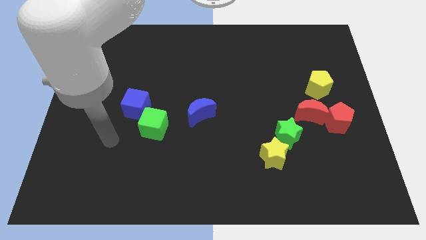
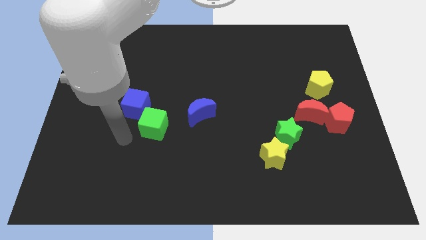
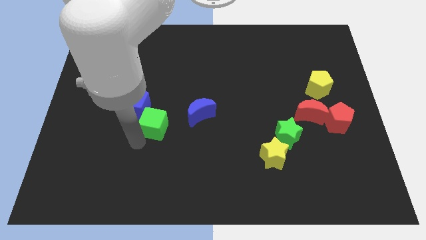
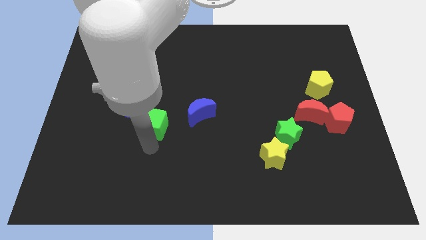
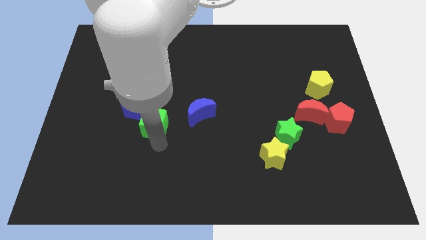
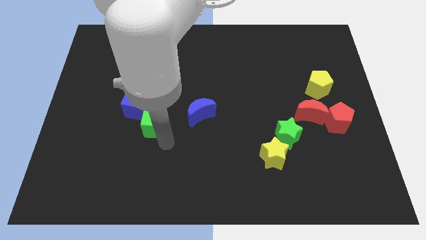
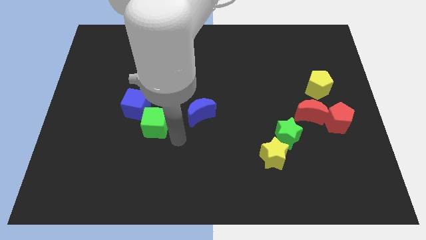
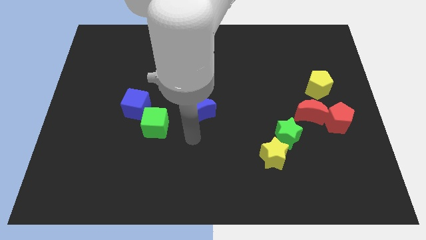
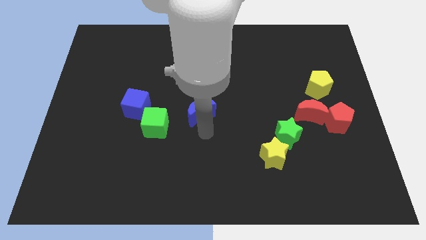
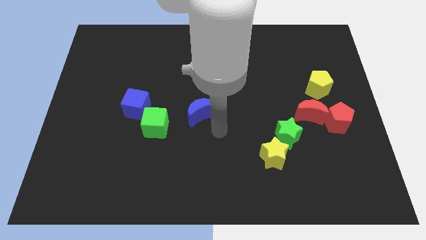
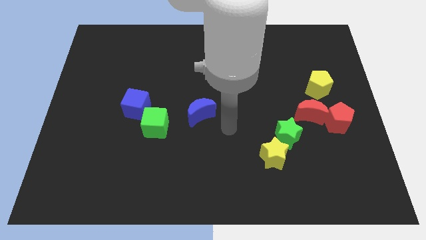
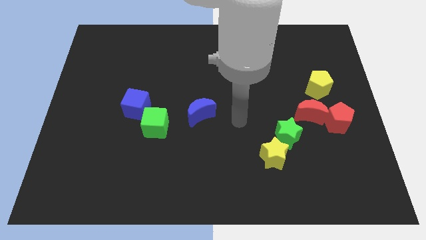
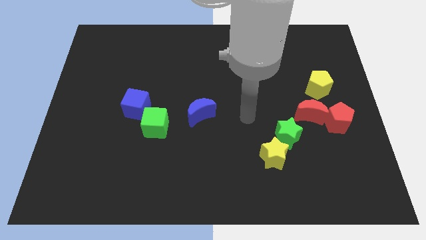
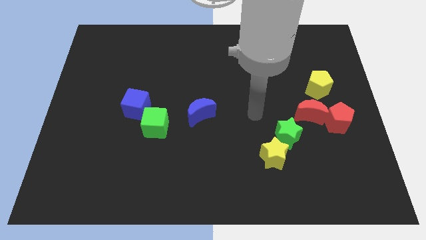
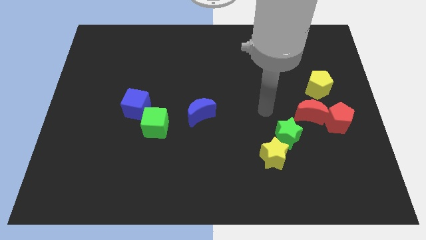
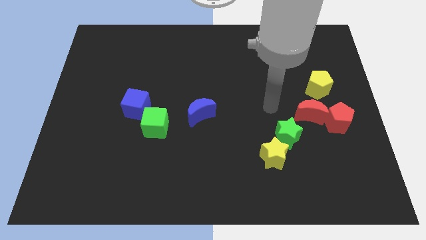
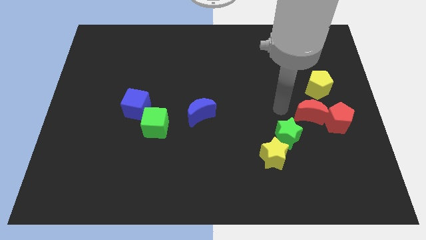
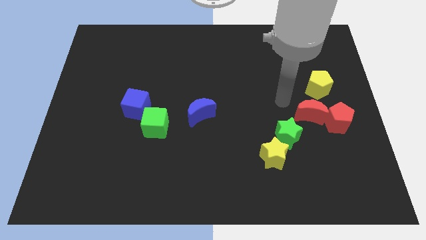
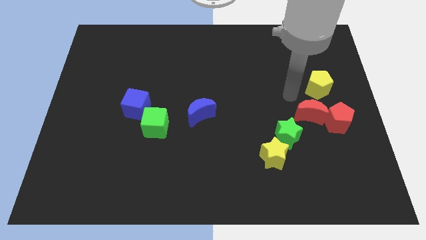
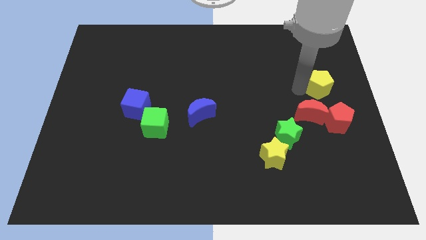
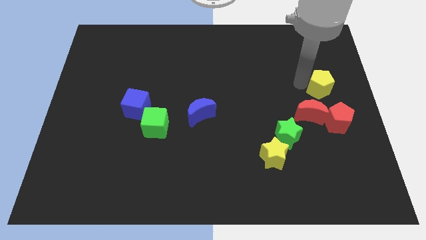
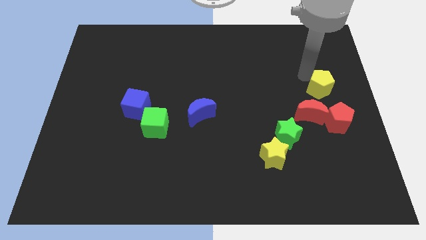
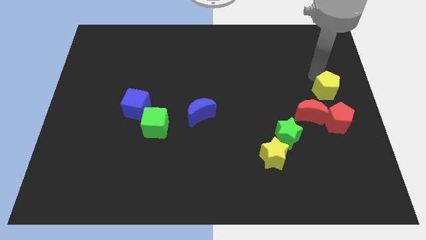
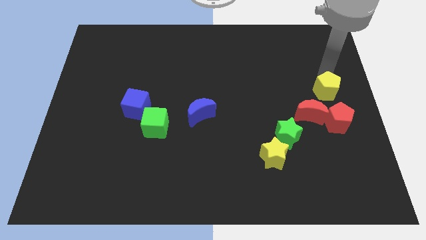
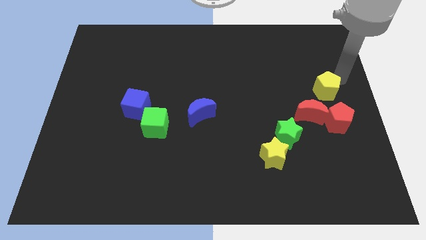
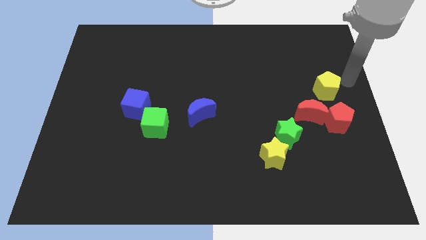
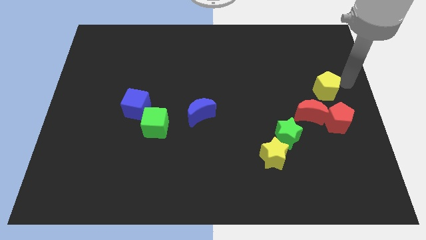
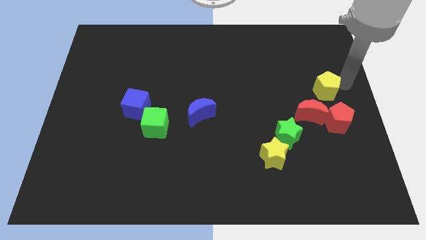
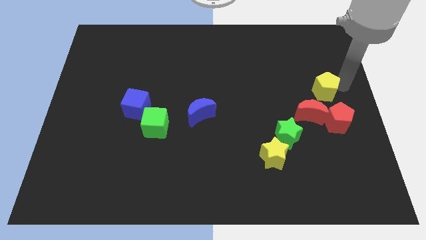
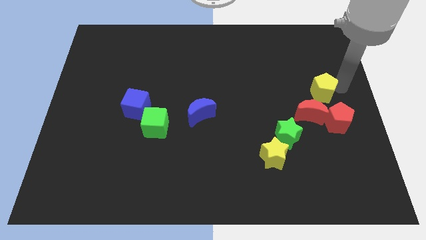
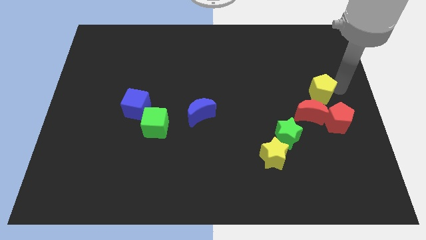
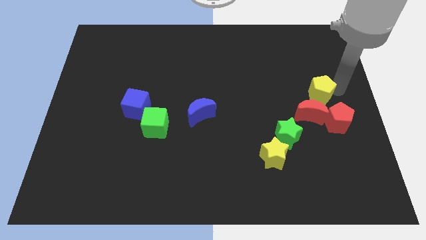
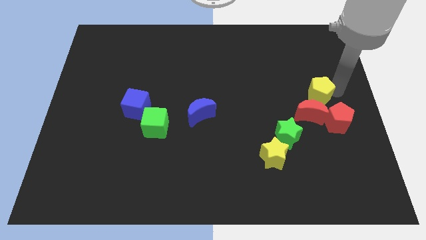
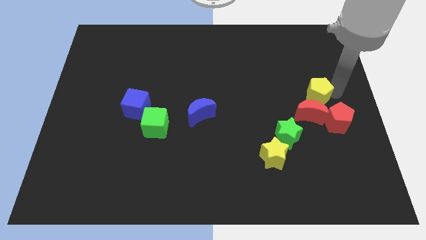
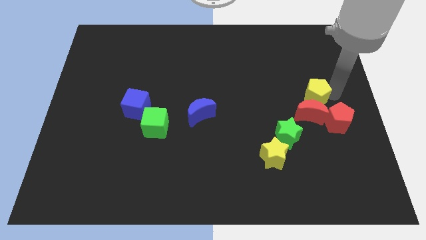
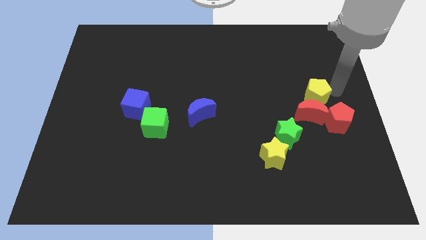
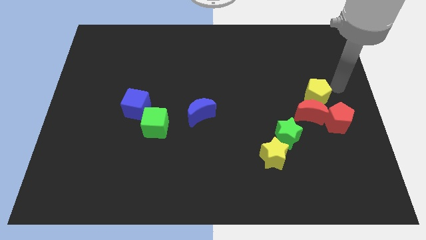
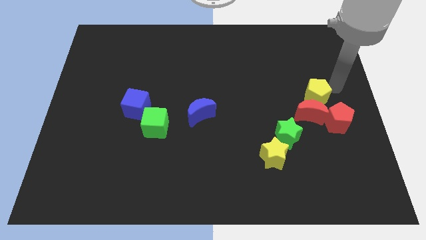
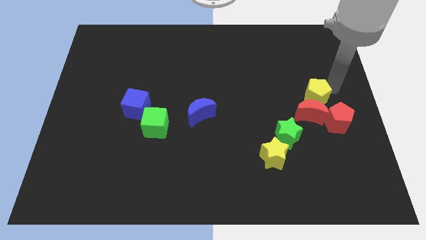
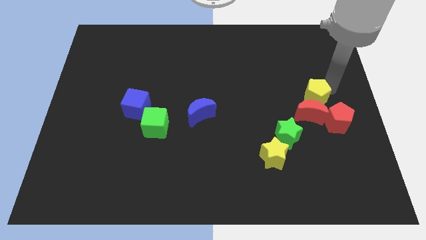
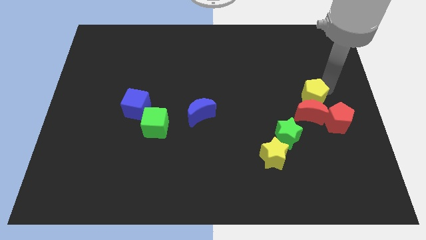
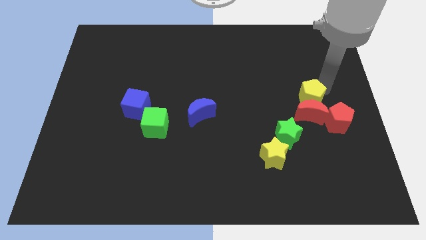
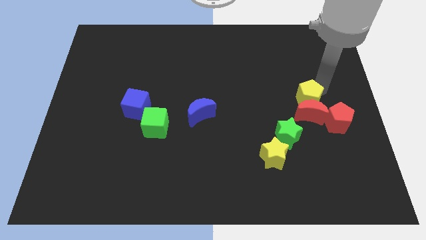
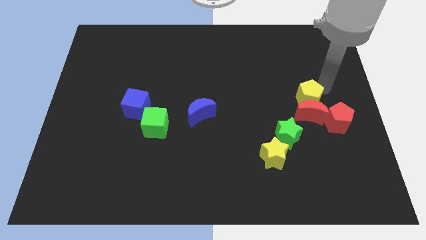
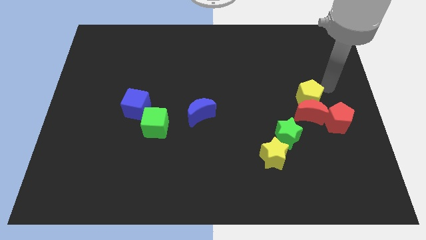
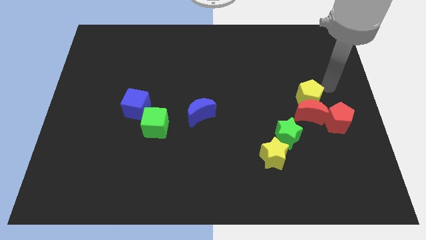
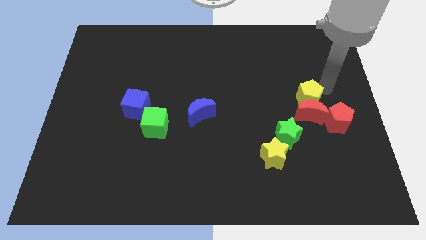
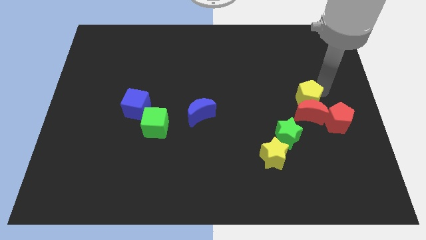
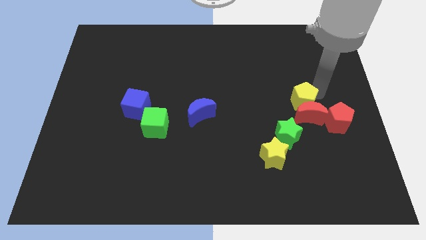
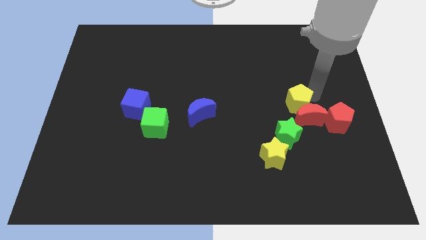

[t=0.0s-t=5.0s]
slightly move the yellow pentagon down and then to the left

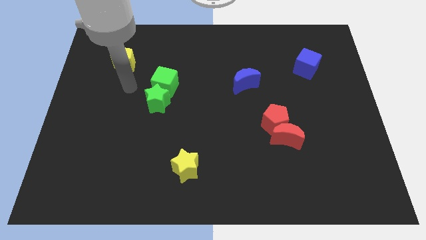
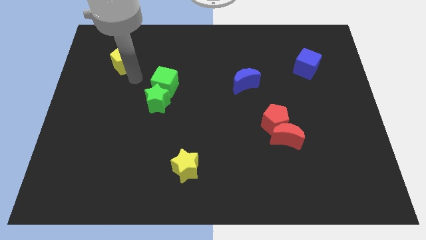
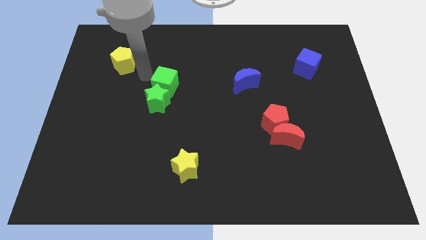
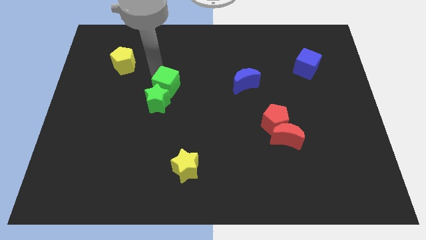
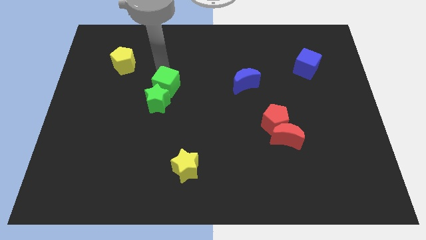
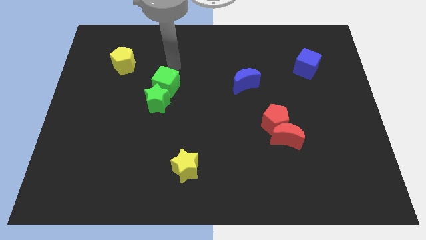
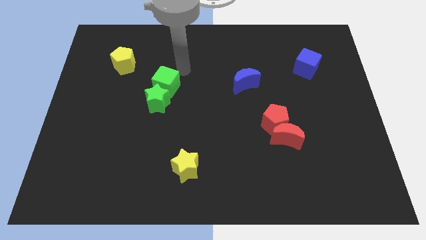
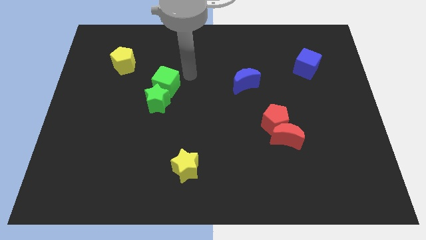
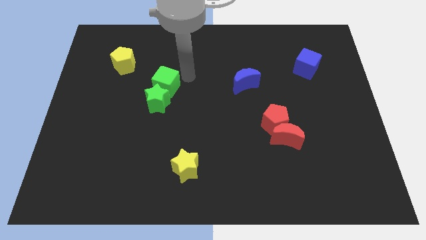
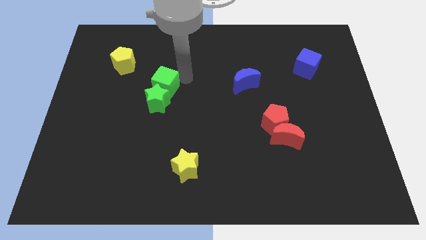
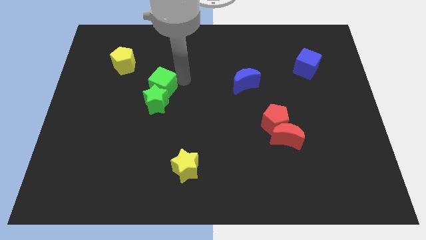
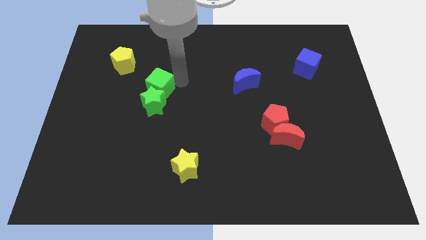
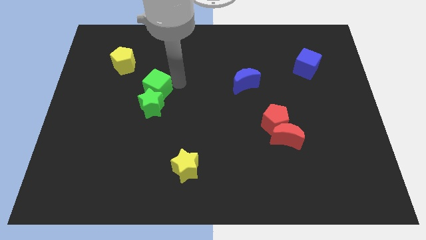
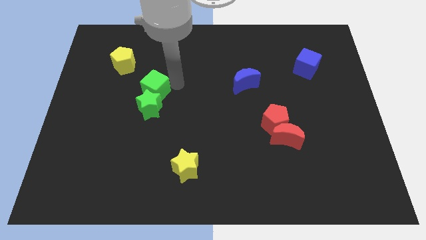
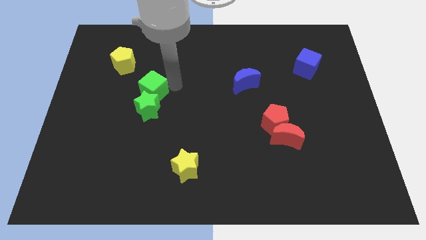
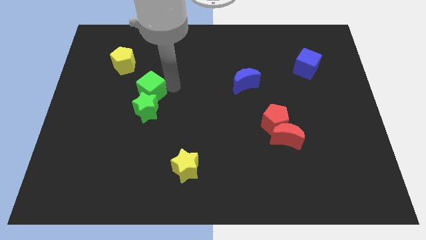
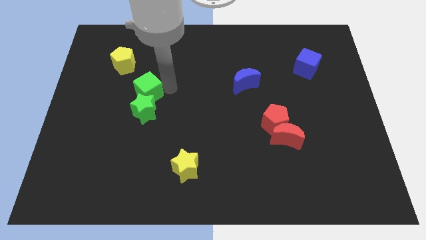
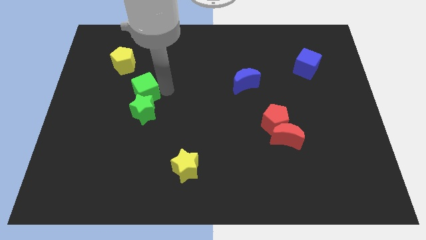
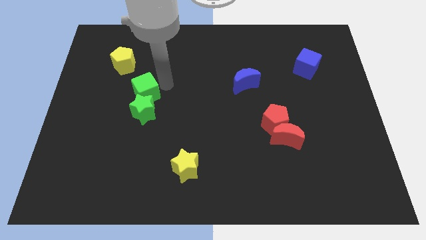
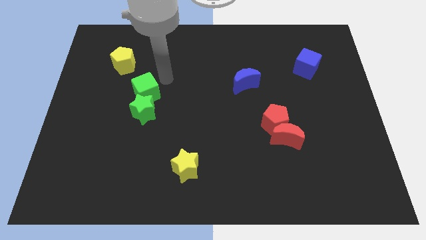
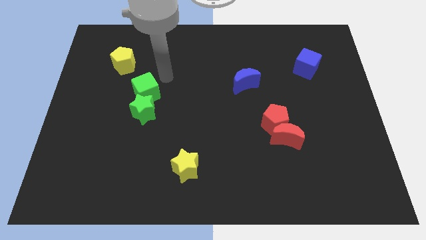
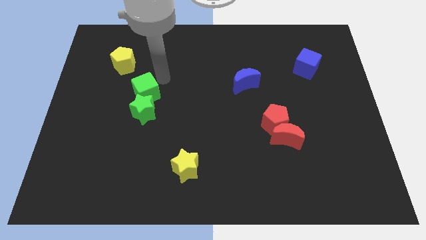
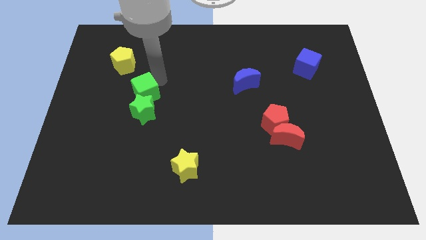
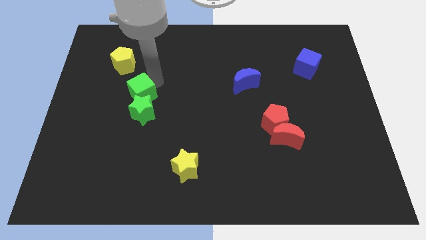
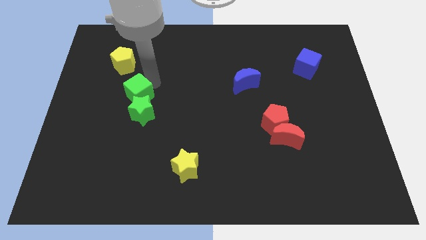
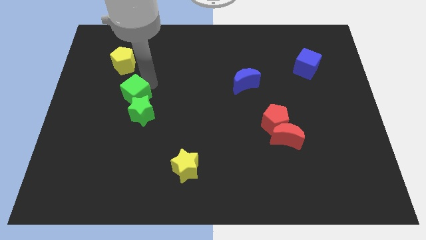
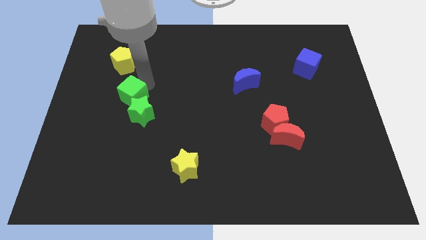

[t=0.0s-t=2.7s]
push the green cube a little downwards and to the left diagonally

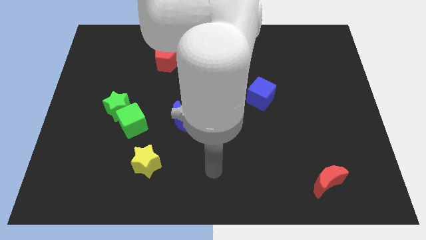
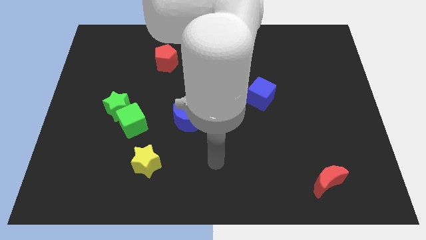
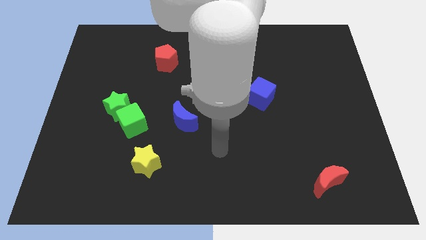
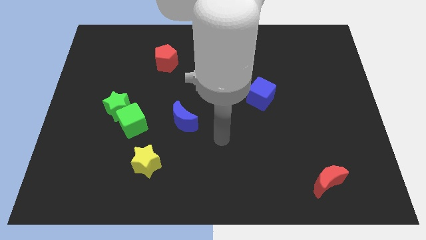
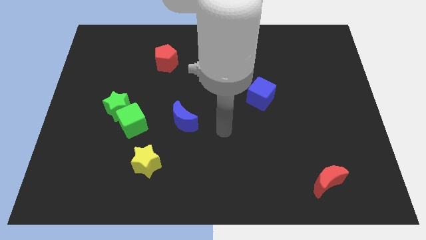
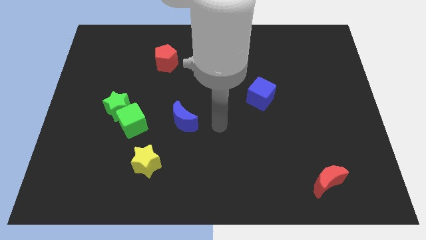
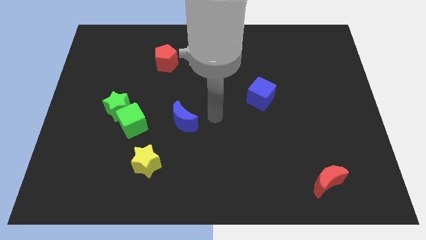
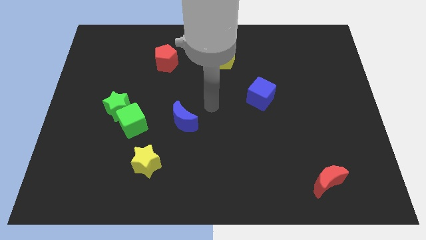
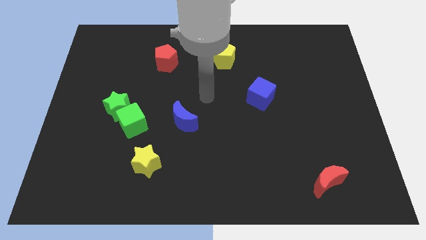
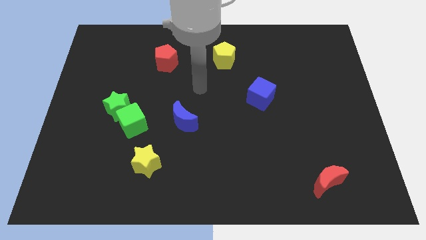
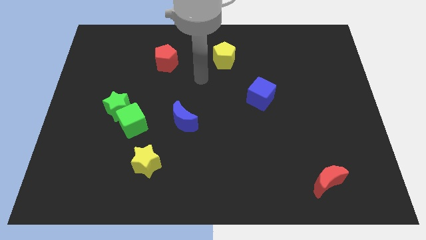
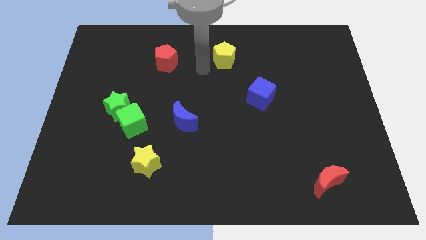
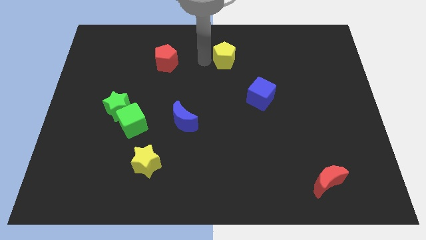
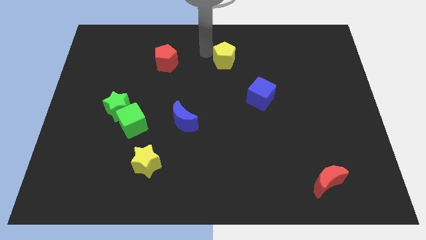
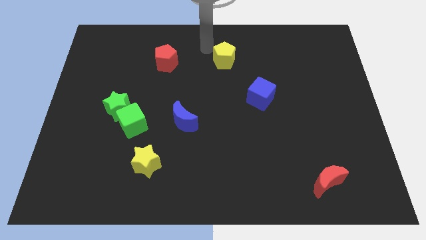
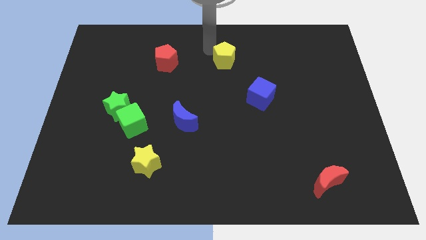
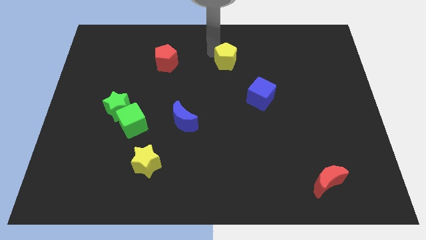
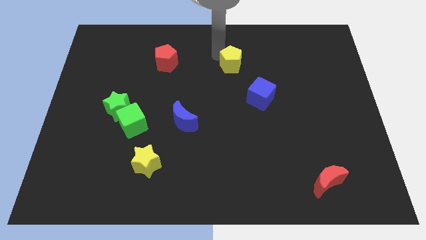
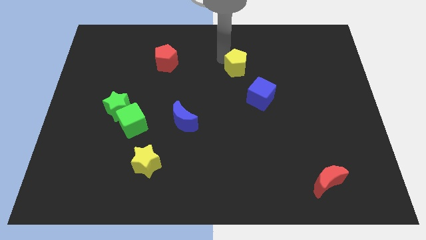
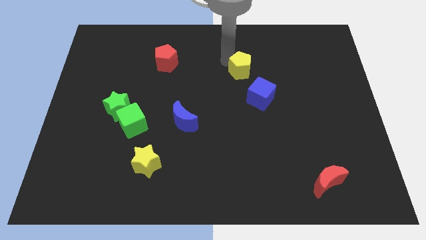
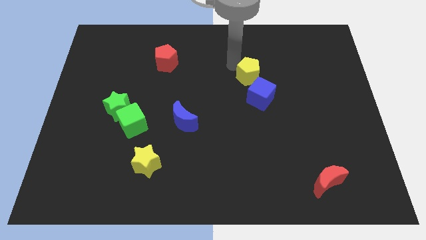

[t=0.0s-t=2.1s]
push the yellow pentagon downwards and right diagonally somewhat
